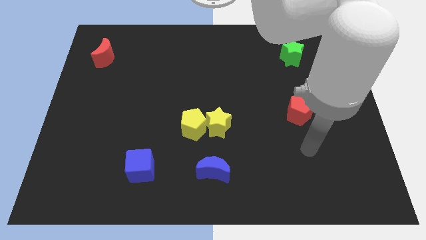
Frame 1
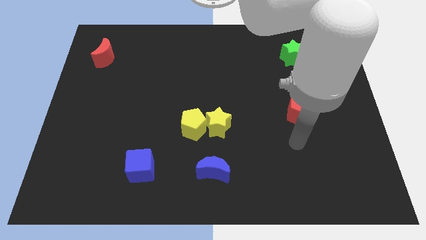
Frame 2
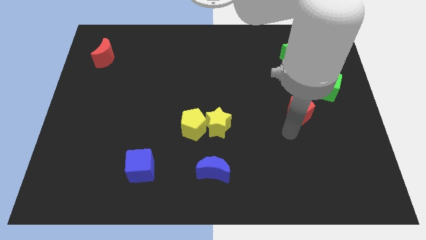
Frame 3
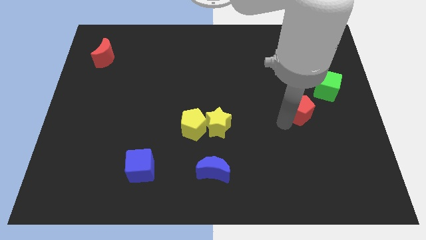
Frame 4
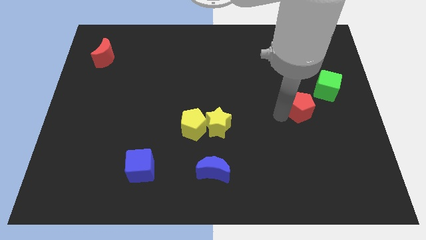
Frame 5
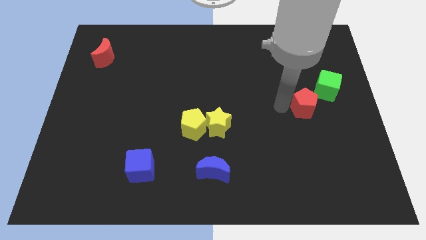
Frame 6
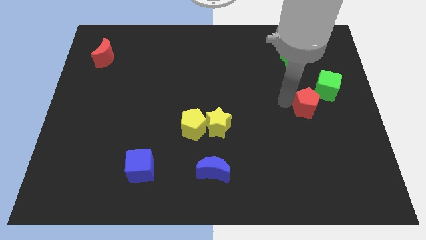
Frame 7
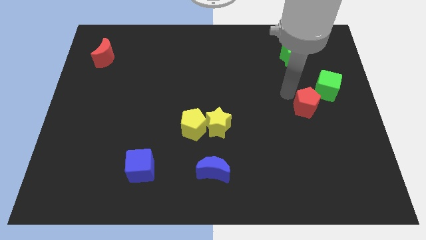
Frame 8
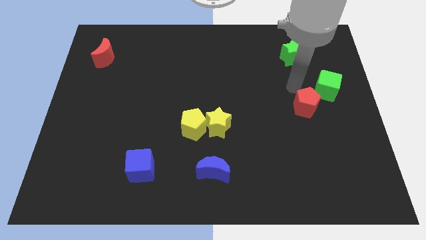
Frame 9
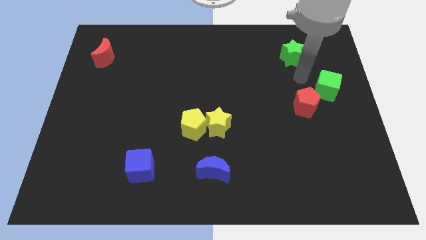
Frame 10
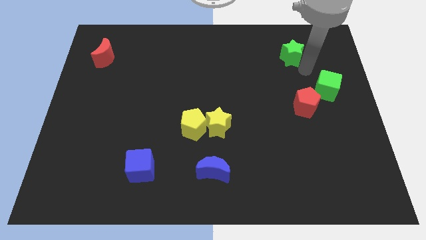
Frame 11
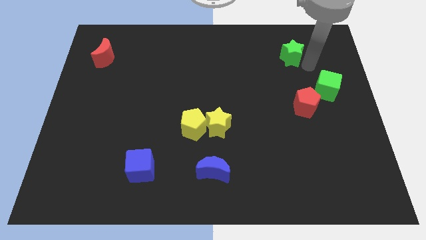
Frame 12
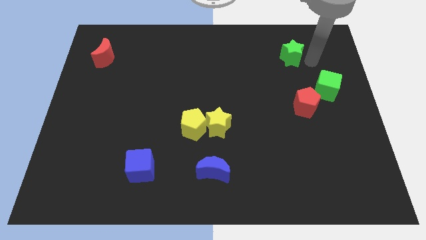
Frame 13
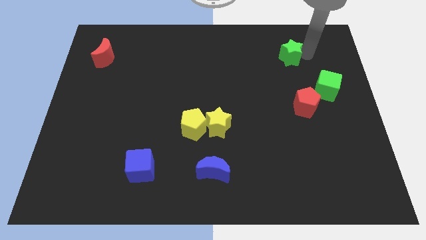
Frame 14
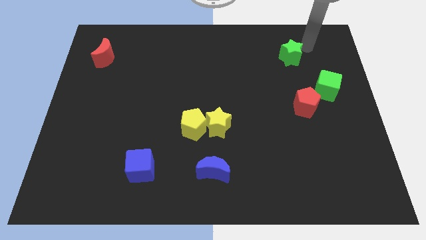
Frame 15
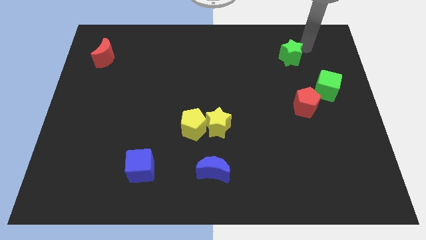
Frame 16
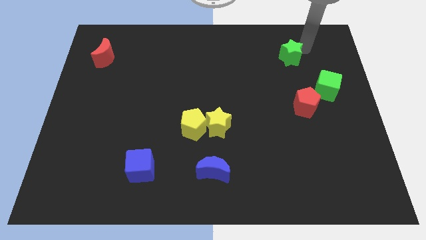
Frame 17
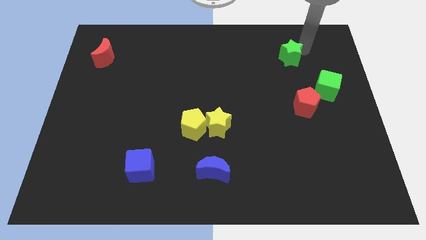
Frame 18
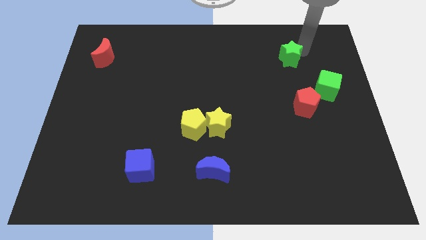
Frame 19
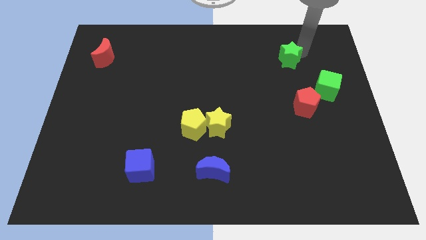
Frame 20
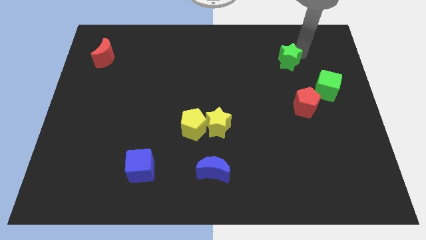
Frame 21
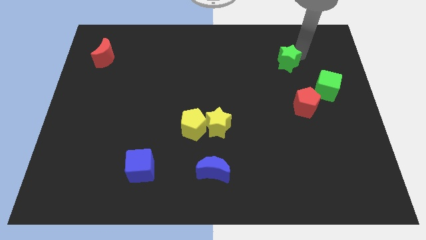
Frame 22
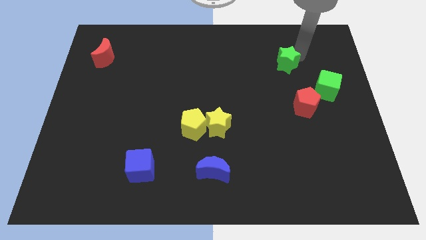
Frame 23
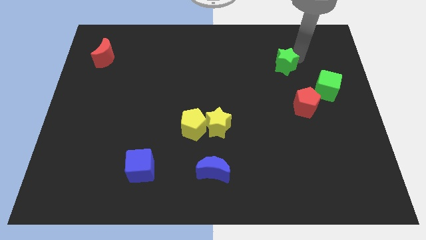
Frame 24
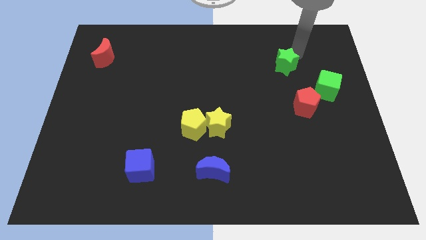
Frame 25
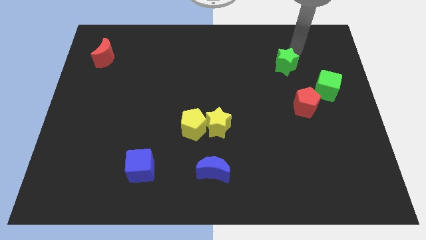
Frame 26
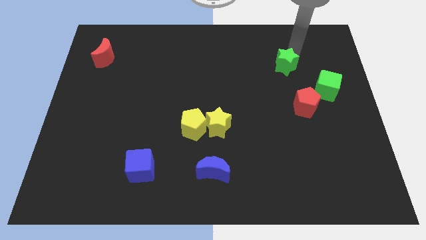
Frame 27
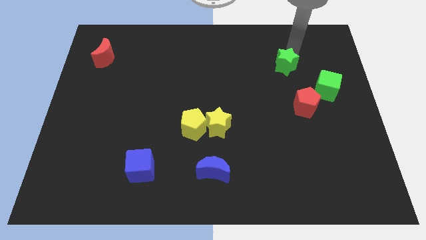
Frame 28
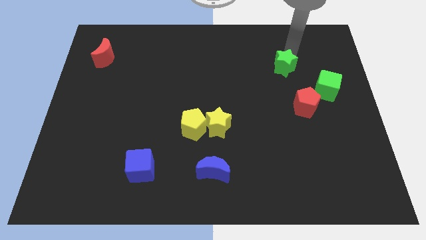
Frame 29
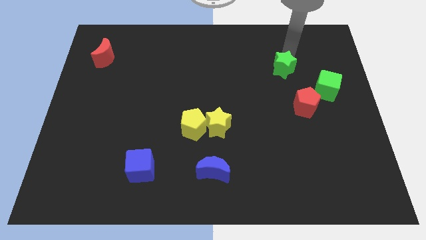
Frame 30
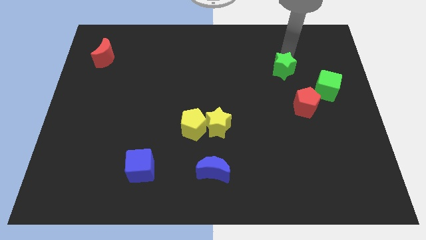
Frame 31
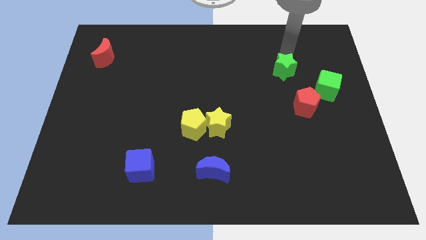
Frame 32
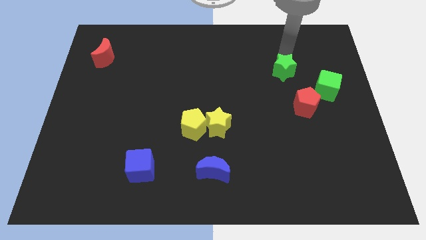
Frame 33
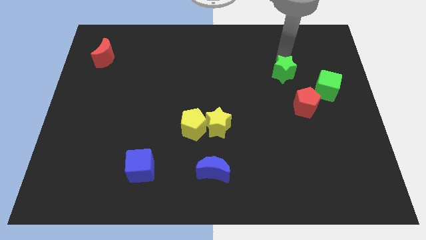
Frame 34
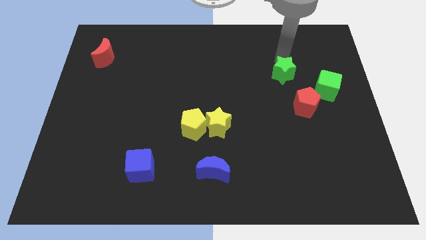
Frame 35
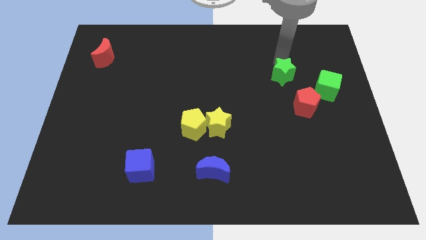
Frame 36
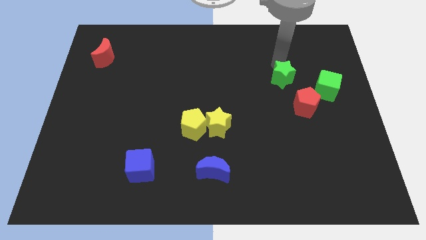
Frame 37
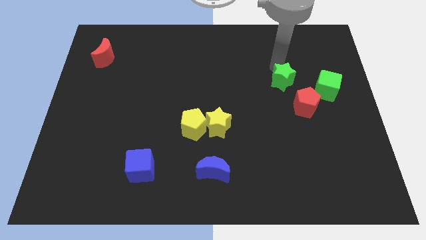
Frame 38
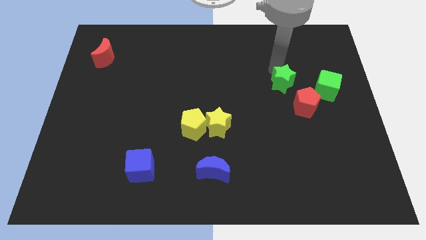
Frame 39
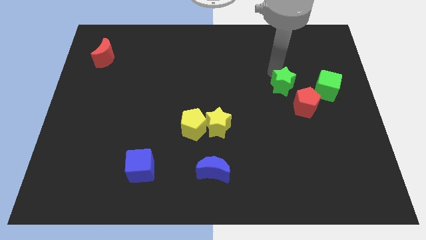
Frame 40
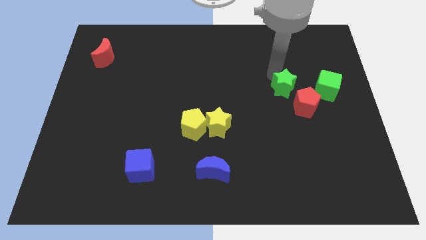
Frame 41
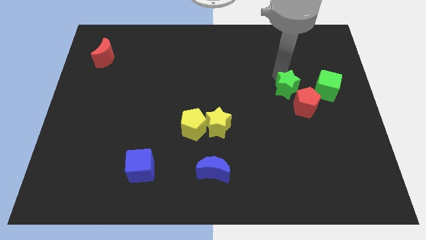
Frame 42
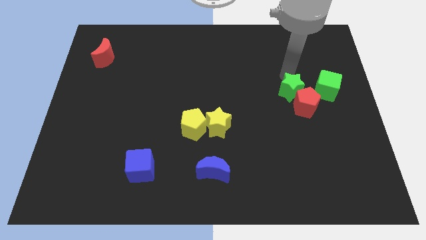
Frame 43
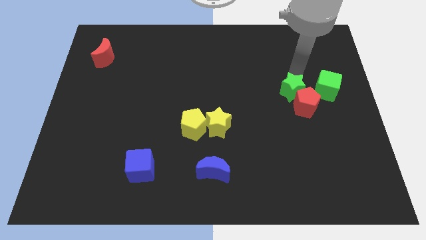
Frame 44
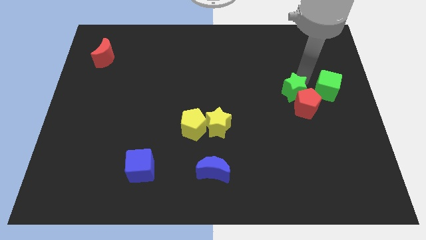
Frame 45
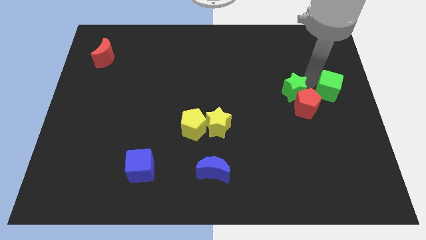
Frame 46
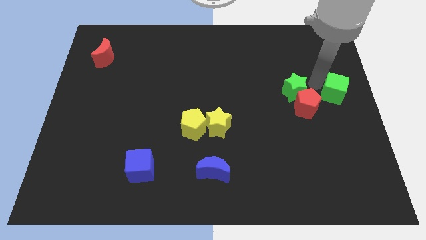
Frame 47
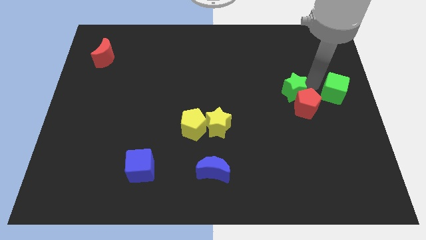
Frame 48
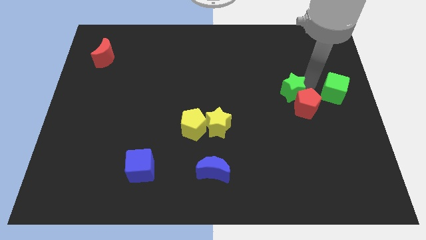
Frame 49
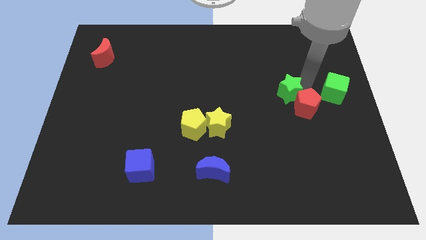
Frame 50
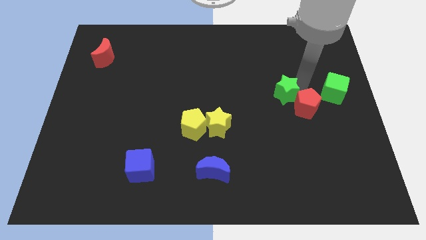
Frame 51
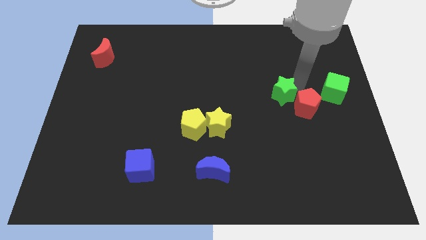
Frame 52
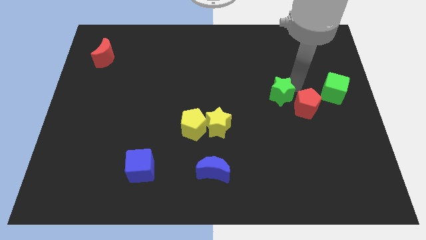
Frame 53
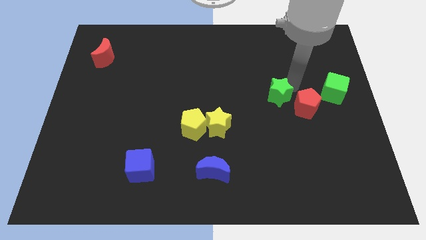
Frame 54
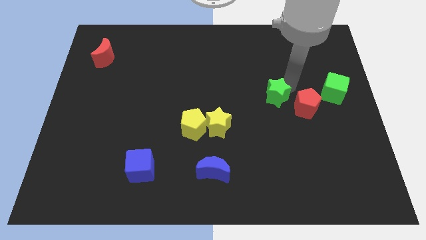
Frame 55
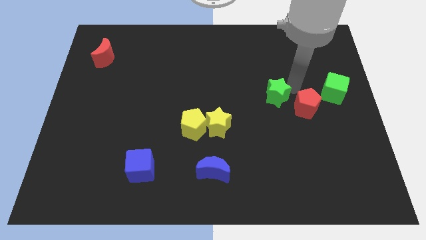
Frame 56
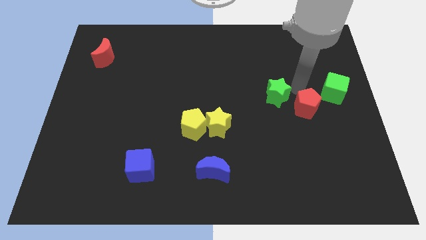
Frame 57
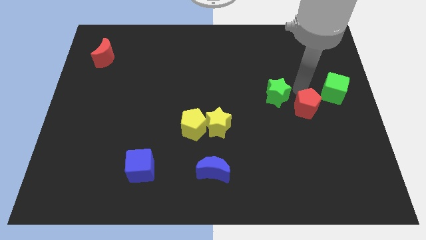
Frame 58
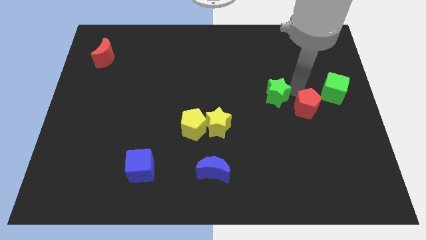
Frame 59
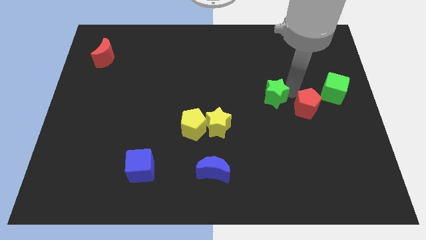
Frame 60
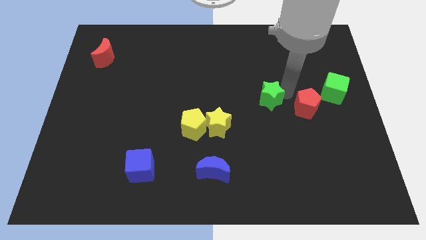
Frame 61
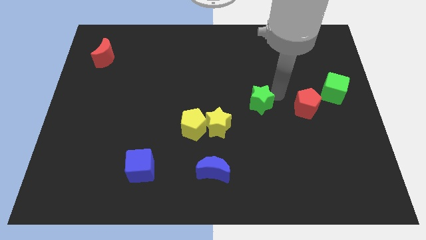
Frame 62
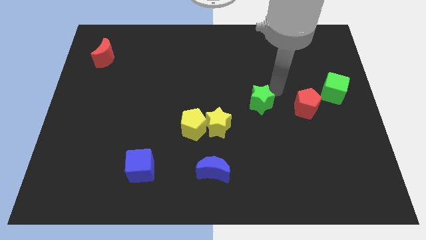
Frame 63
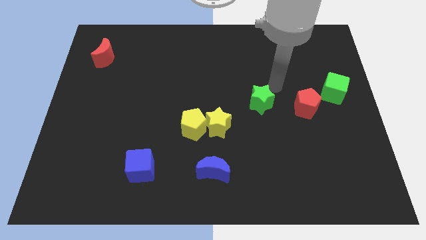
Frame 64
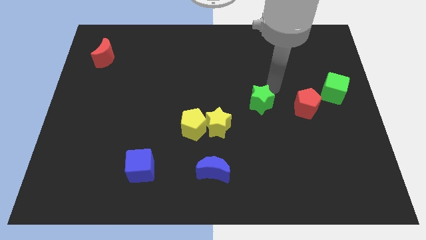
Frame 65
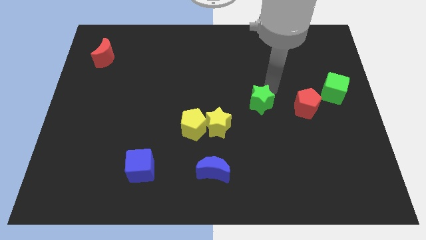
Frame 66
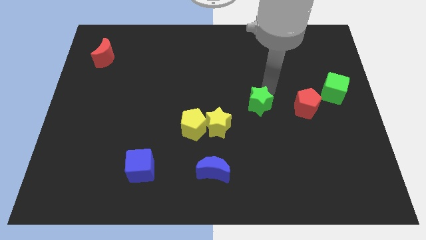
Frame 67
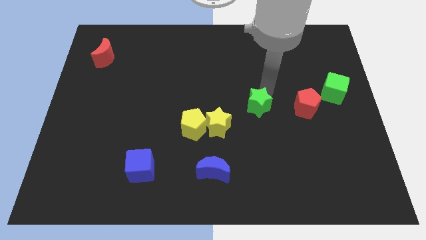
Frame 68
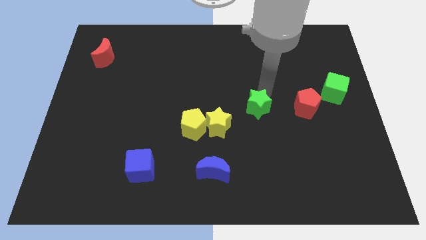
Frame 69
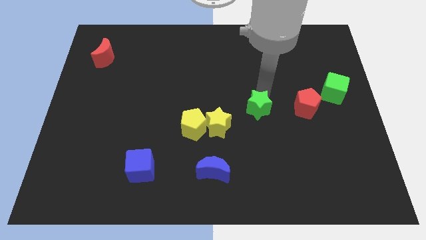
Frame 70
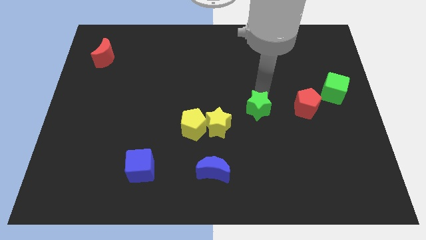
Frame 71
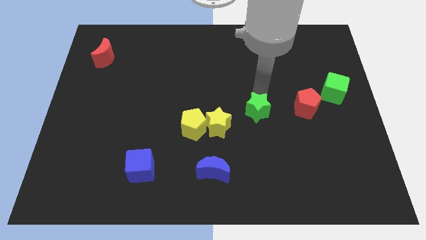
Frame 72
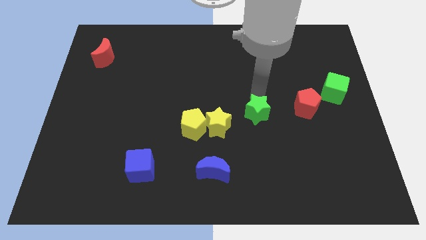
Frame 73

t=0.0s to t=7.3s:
slide the green star just right of the yellow pentagon

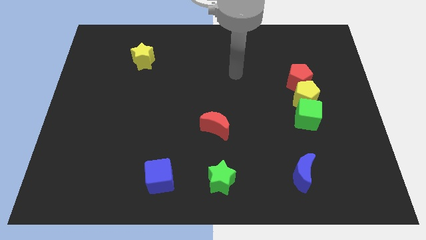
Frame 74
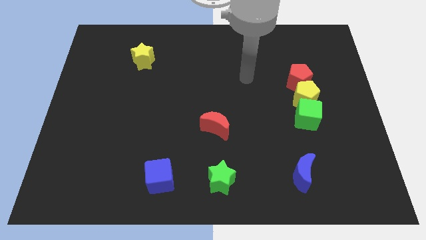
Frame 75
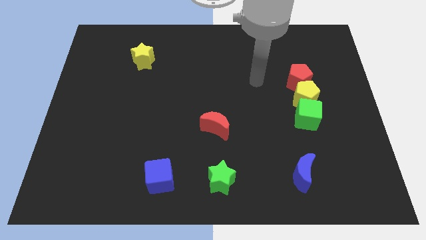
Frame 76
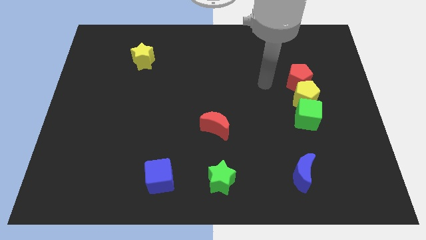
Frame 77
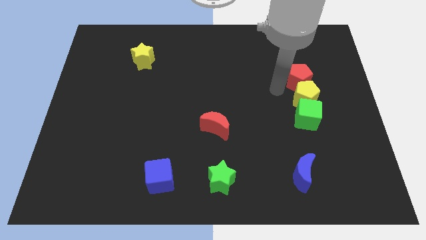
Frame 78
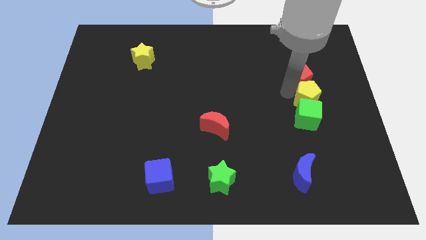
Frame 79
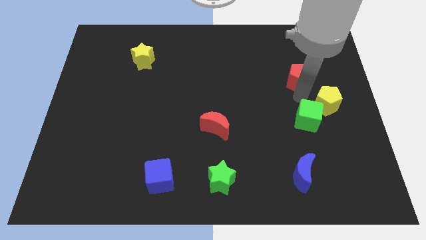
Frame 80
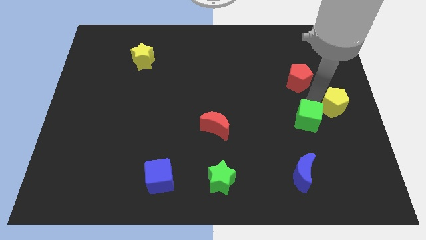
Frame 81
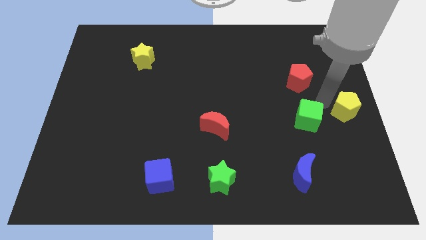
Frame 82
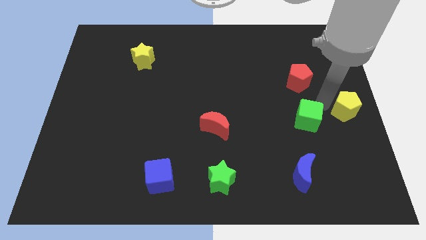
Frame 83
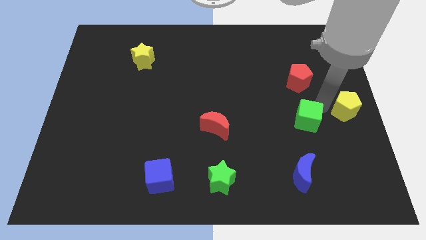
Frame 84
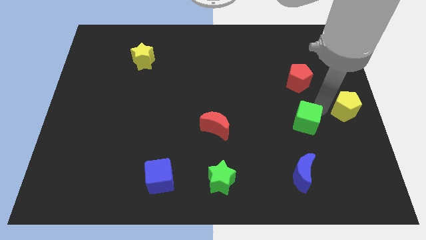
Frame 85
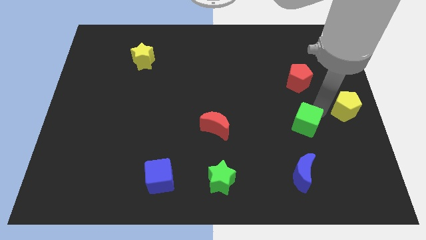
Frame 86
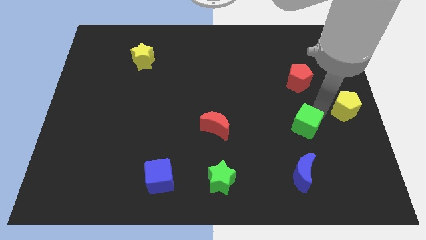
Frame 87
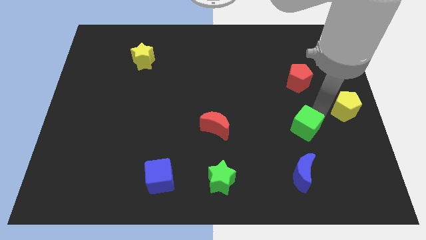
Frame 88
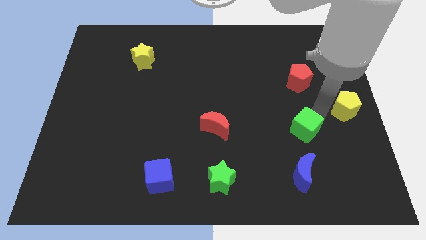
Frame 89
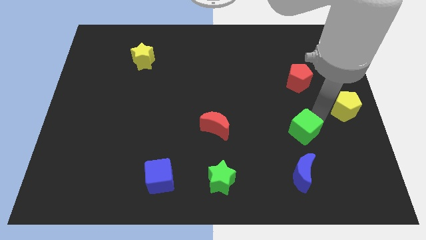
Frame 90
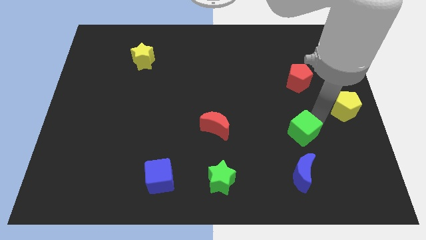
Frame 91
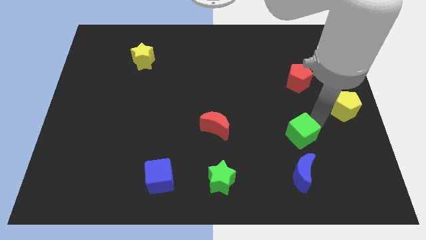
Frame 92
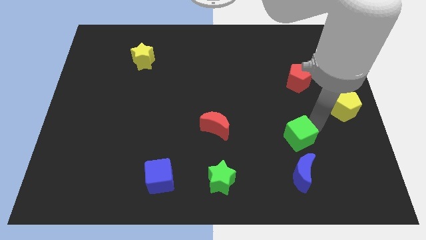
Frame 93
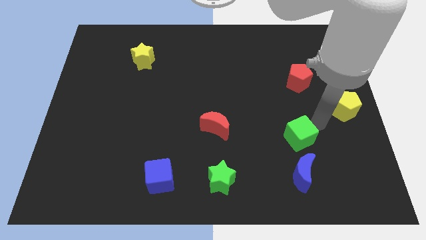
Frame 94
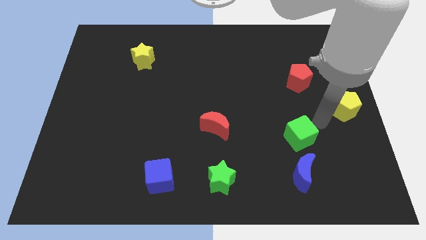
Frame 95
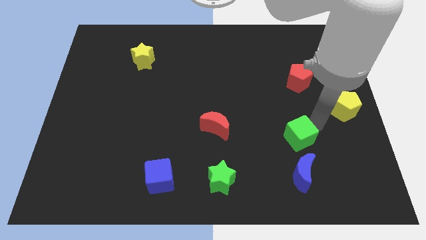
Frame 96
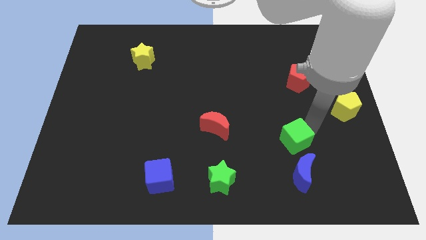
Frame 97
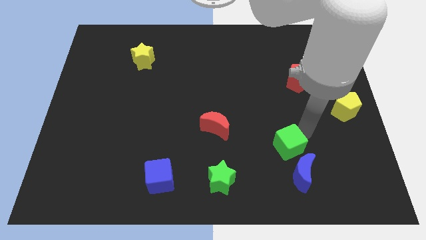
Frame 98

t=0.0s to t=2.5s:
push the green cube to the top left side of the blue moon
